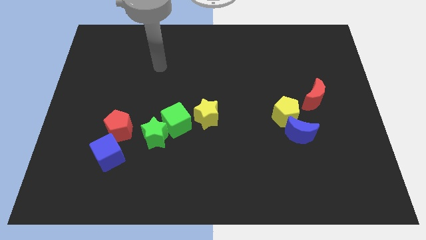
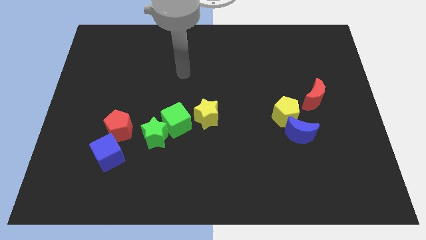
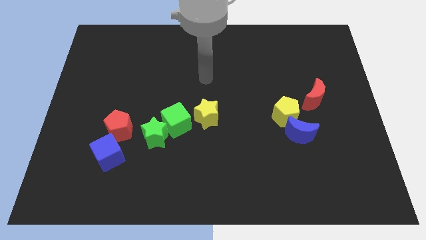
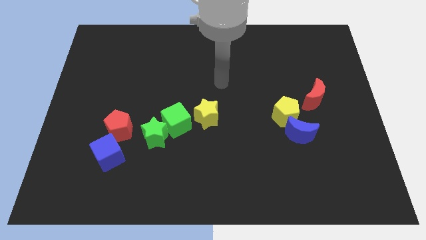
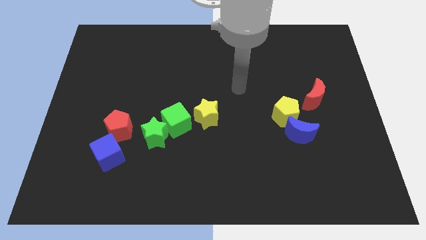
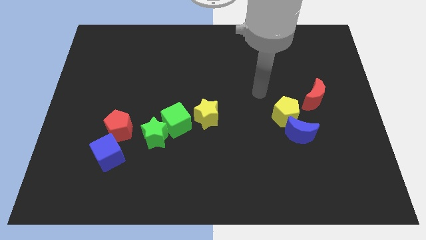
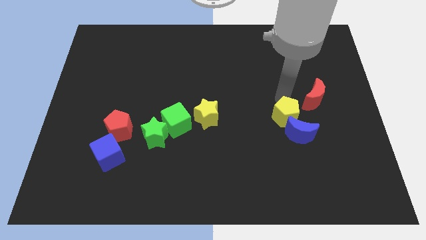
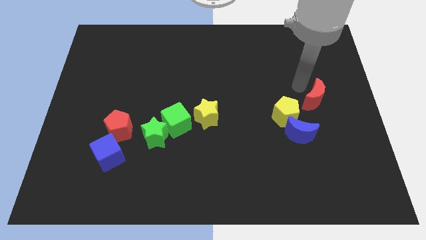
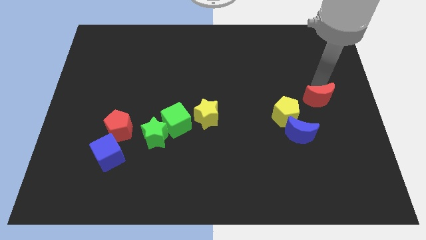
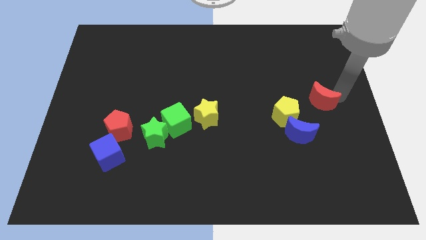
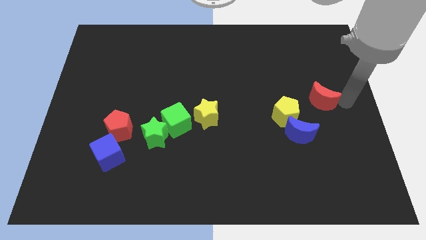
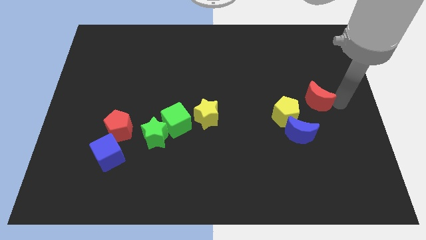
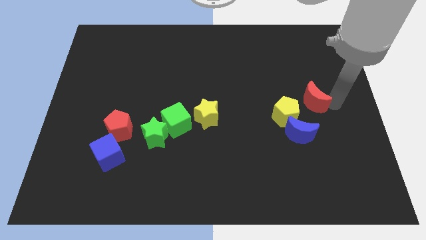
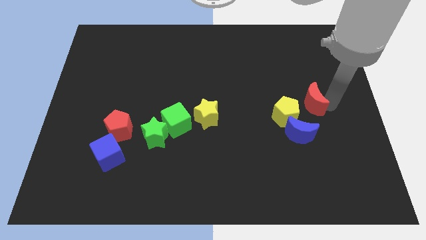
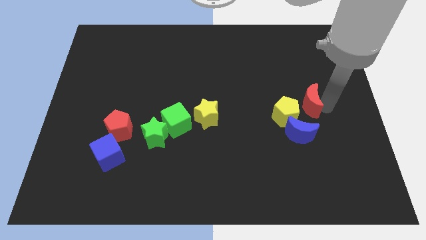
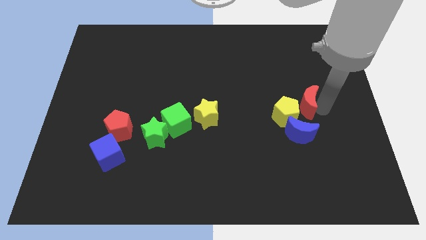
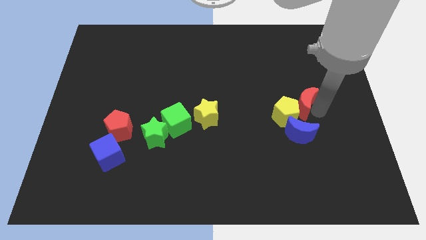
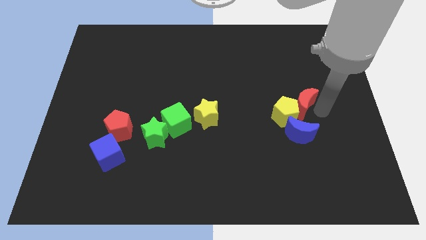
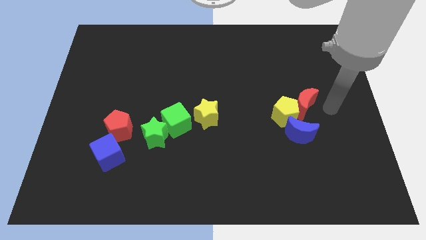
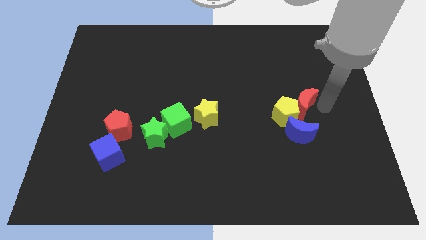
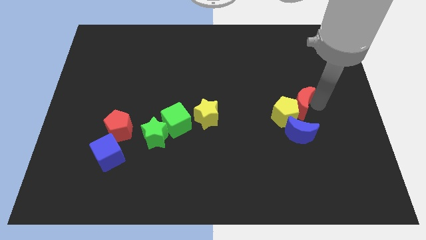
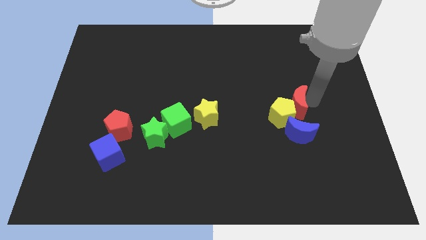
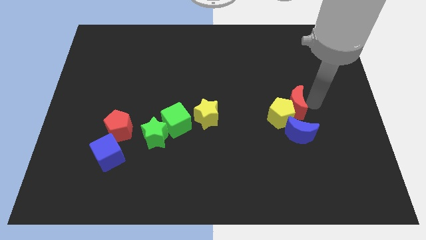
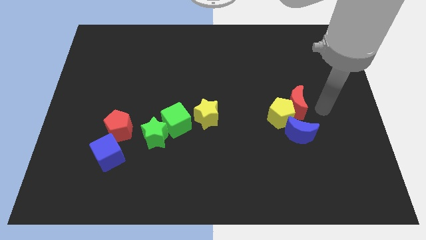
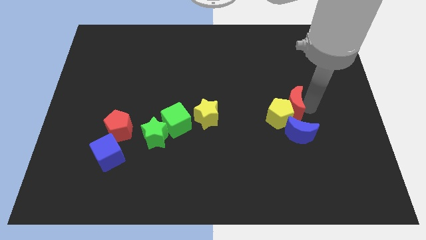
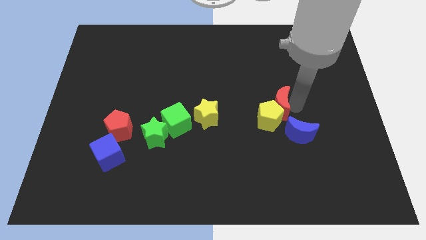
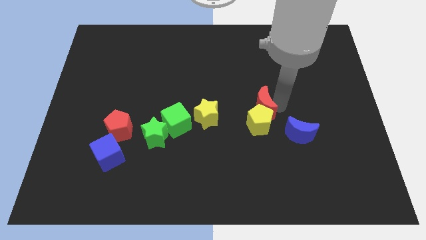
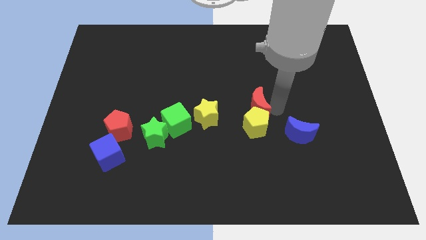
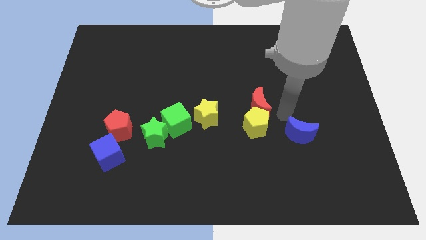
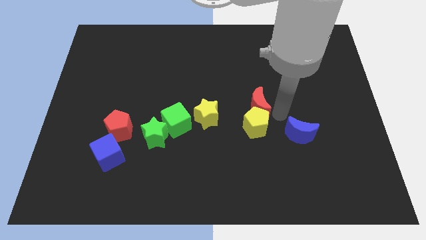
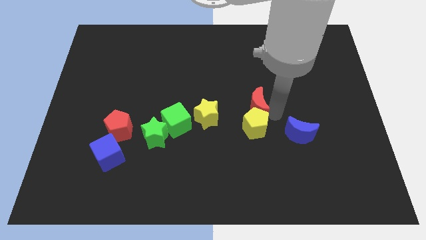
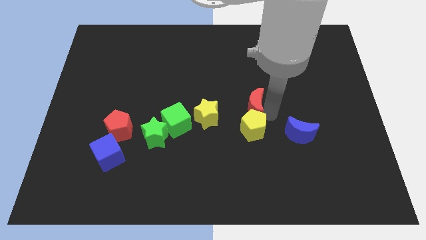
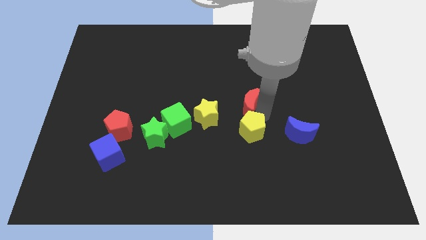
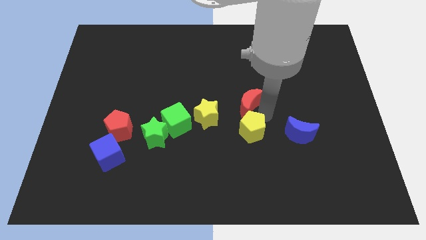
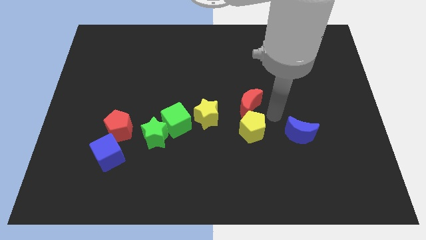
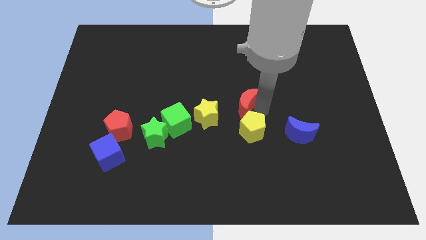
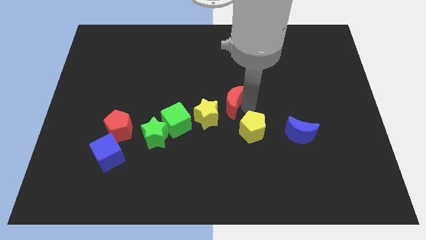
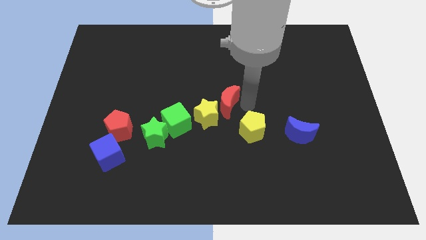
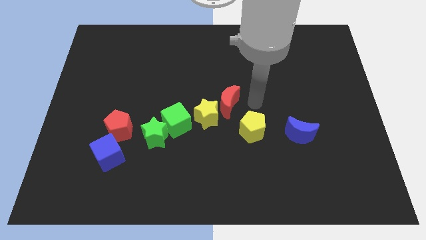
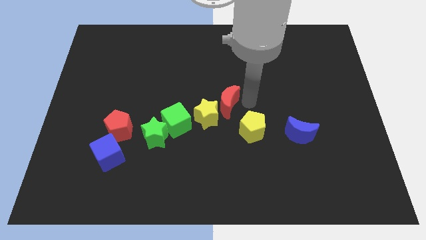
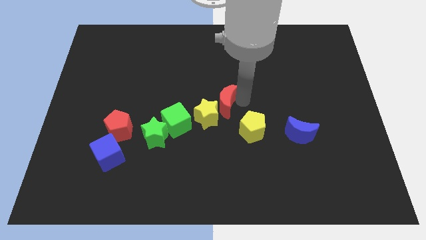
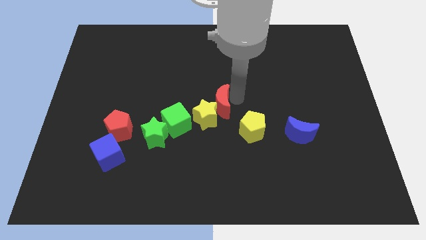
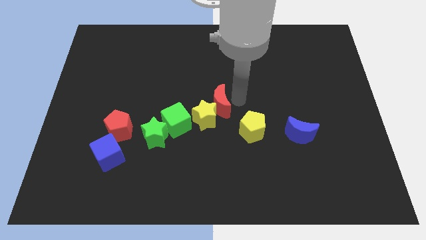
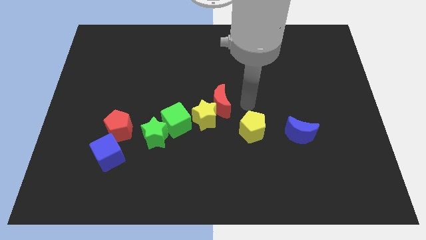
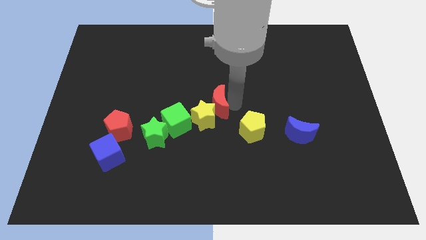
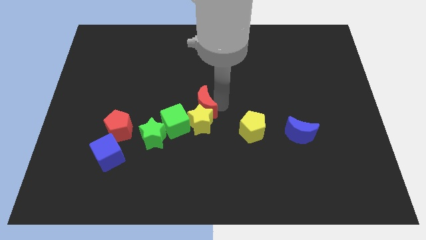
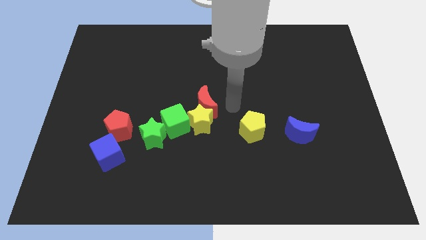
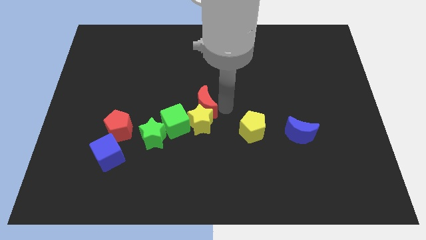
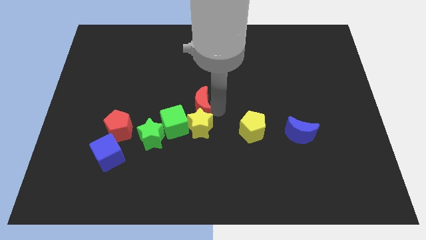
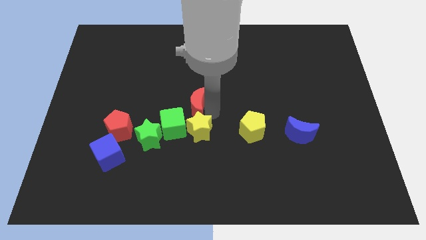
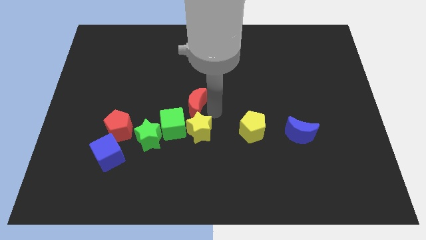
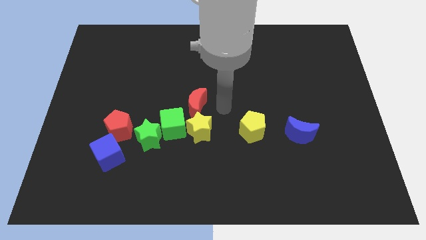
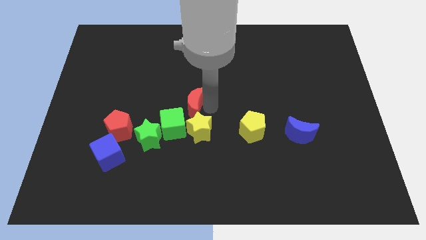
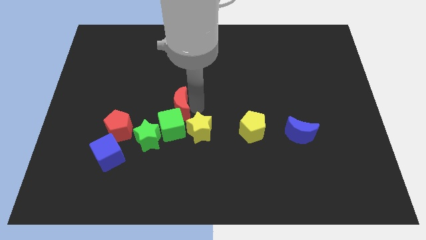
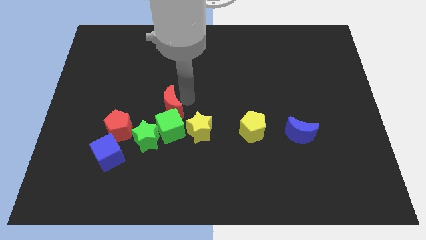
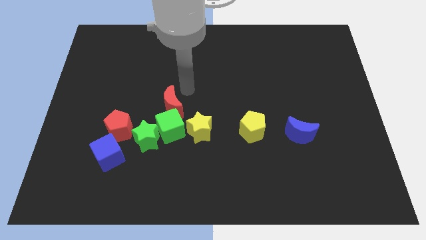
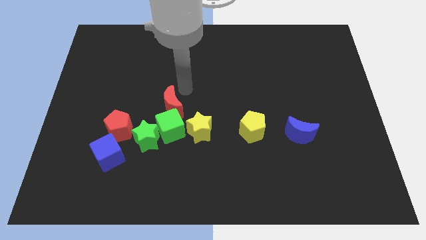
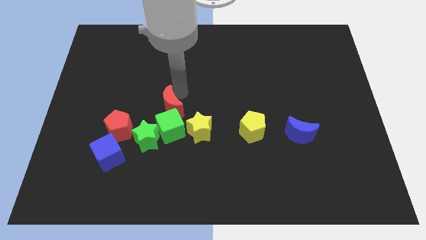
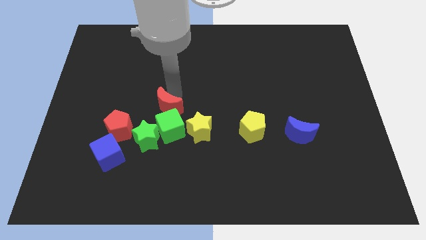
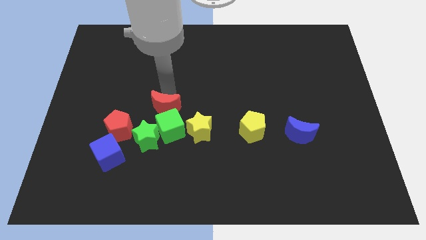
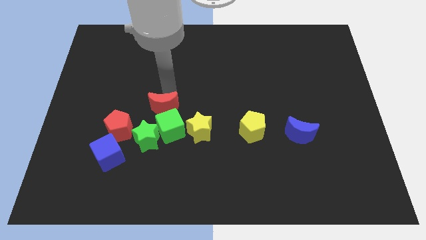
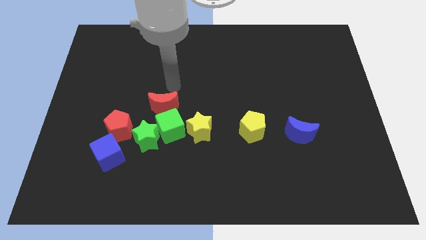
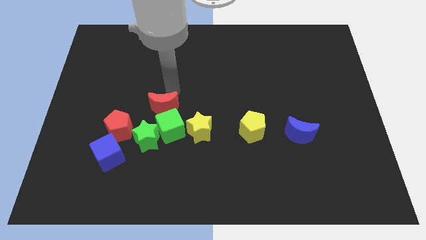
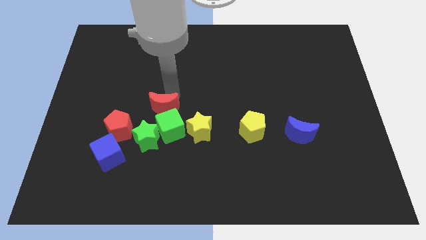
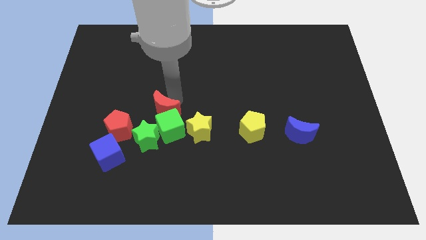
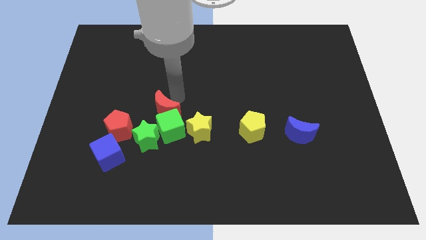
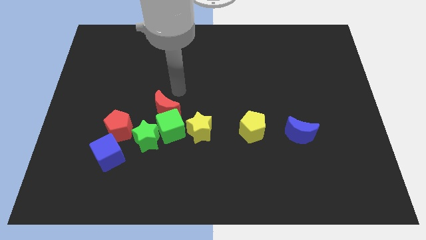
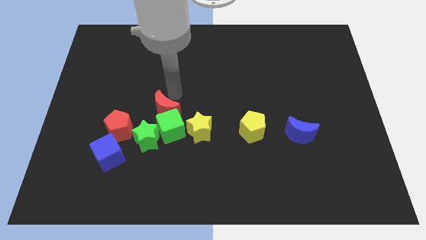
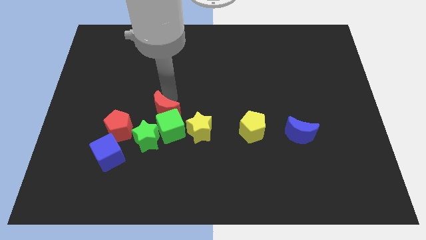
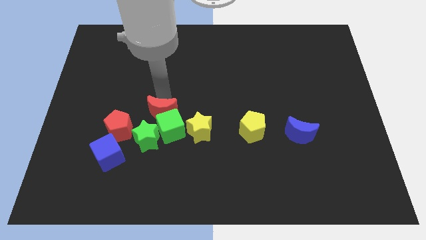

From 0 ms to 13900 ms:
push the red moon just left of the yellow star

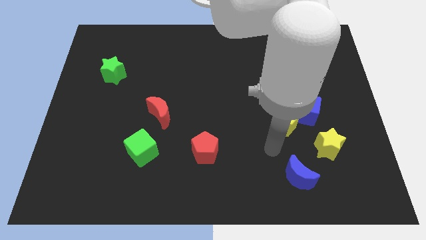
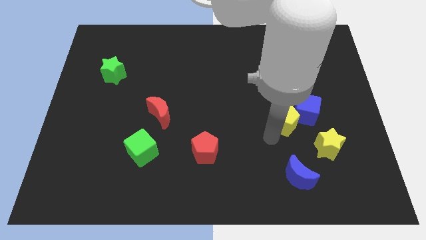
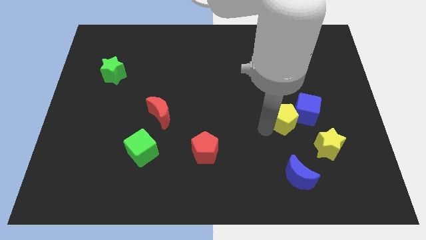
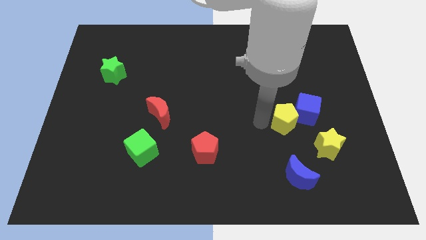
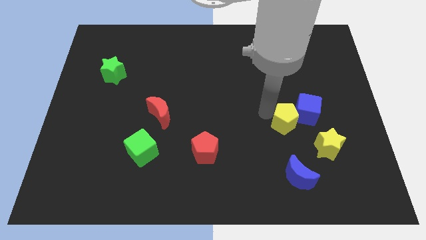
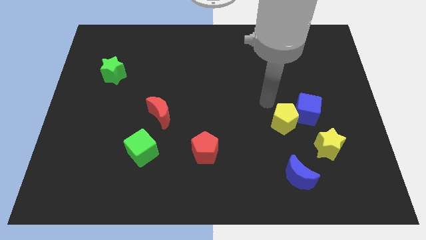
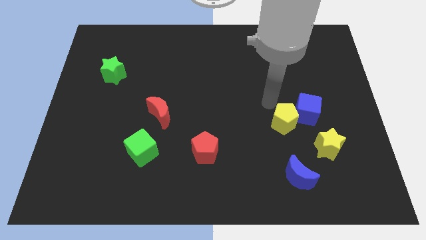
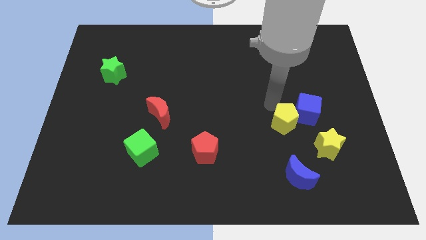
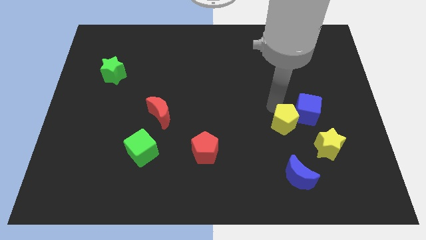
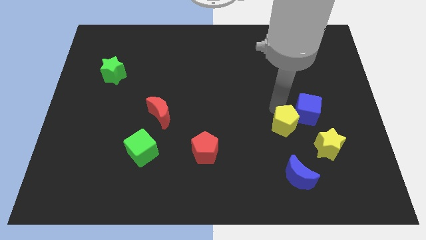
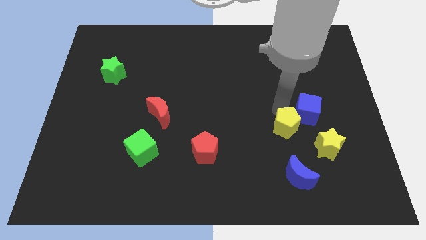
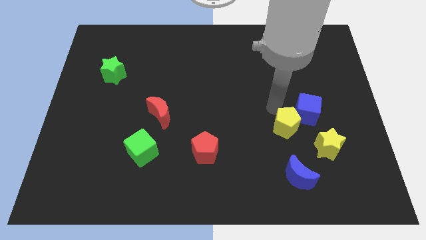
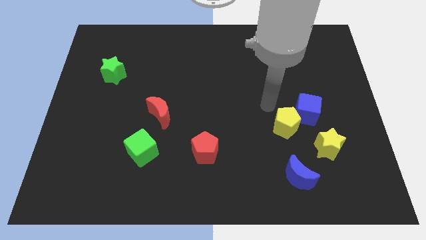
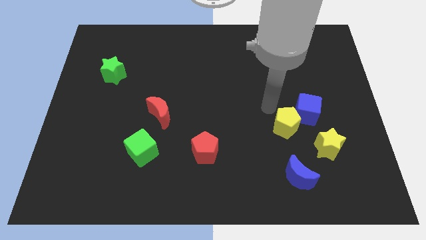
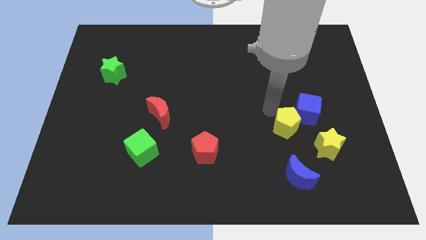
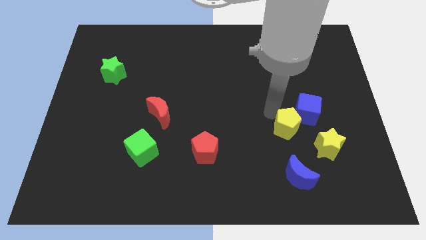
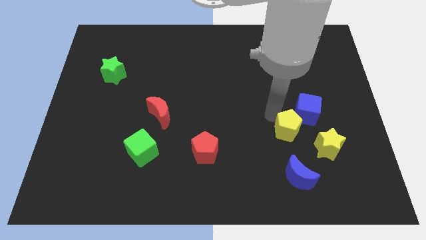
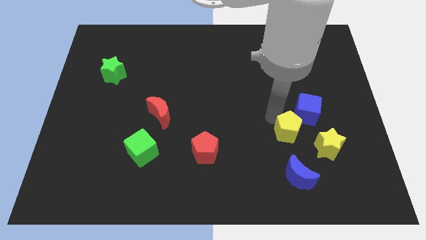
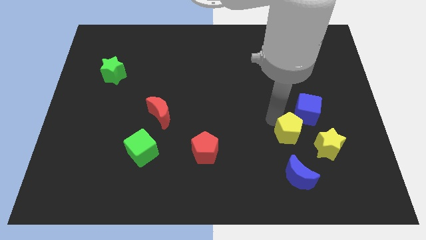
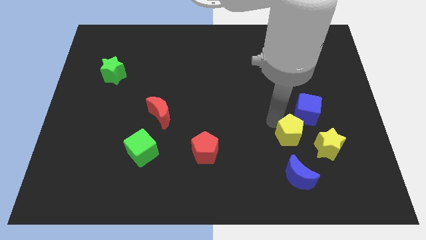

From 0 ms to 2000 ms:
move the yellow pentagon below the blue cube
